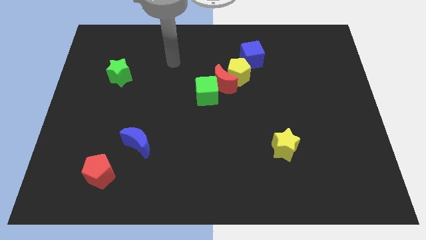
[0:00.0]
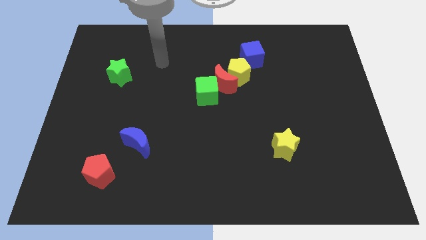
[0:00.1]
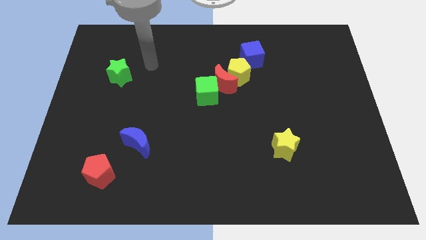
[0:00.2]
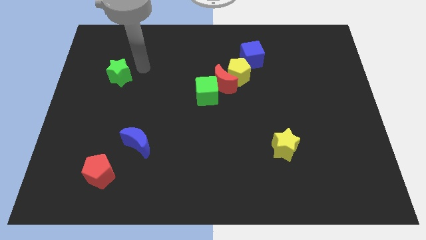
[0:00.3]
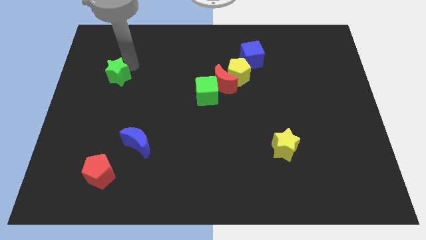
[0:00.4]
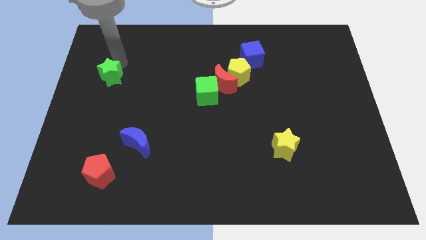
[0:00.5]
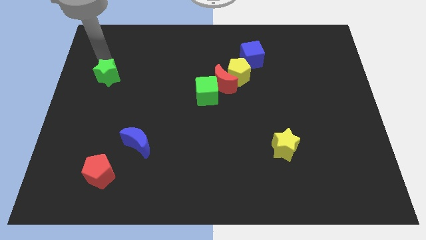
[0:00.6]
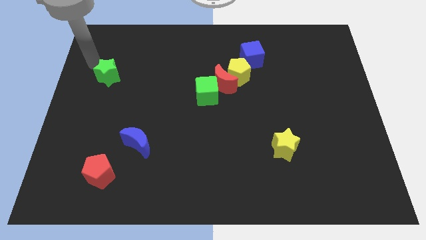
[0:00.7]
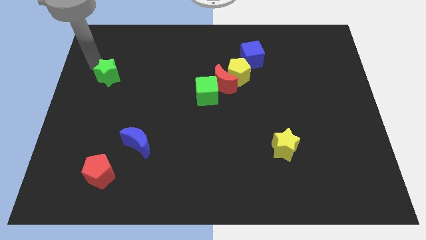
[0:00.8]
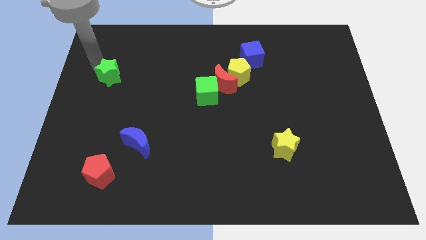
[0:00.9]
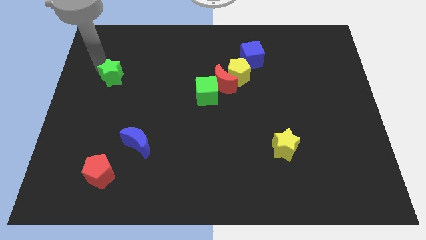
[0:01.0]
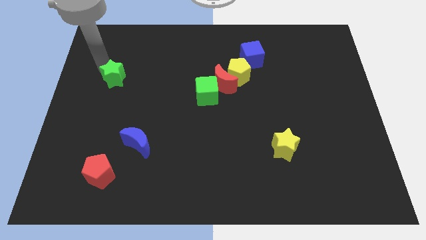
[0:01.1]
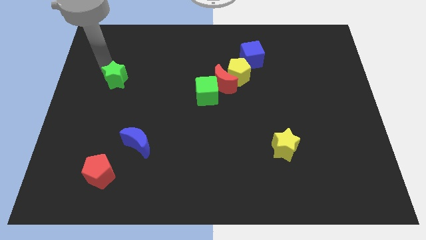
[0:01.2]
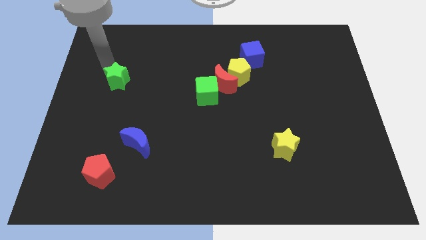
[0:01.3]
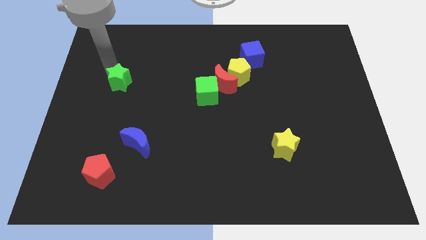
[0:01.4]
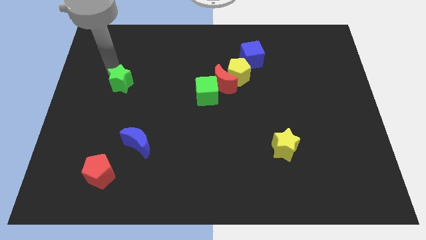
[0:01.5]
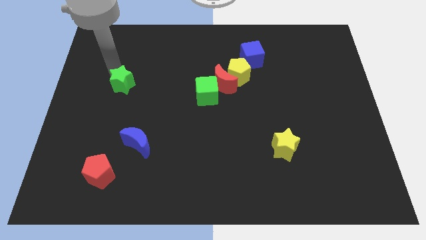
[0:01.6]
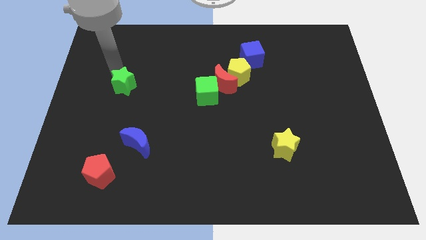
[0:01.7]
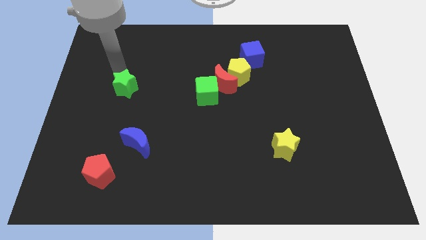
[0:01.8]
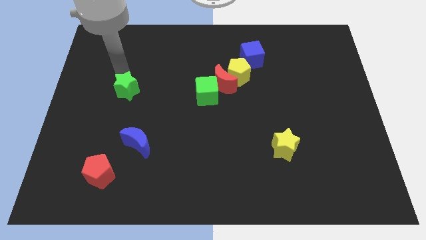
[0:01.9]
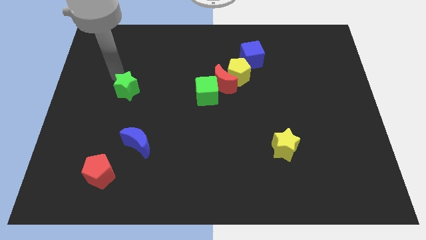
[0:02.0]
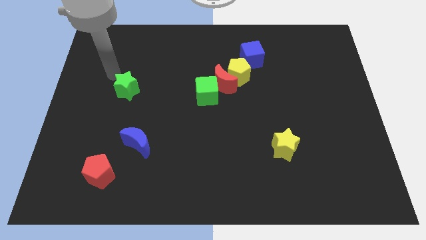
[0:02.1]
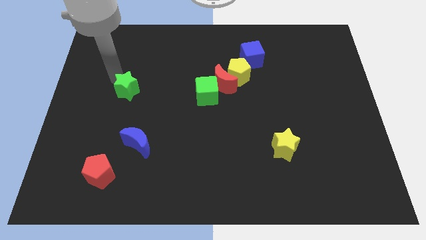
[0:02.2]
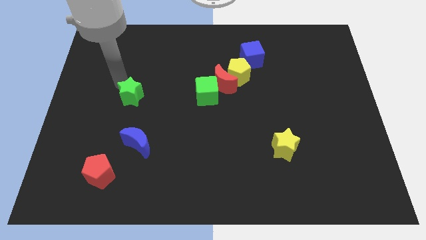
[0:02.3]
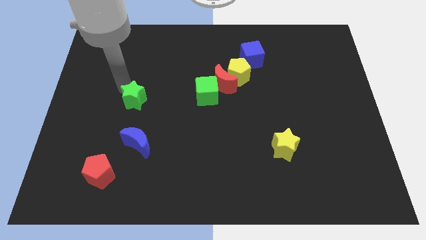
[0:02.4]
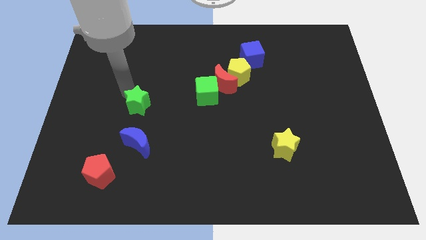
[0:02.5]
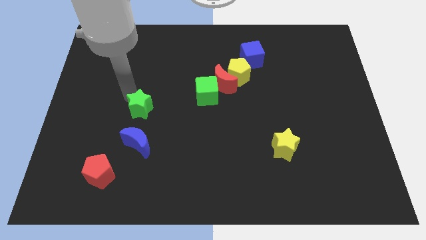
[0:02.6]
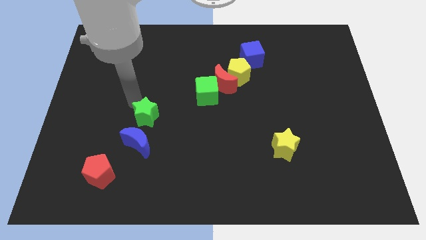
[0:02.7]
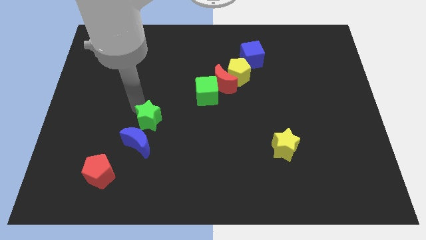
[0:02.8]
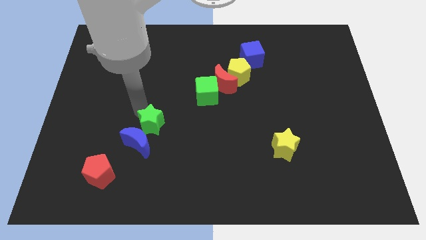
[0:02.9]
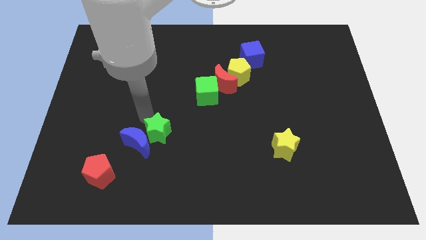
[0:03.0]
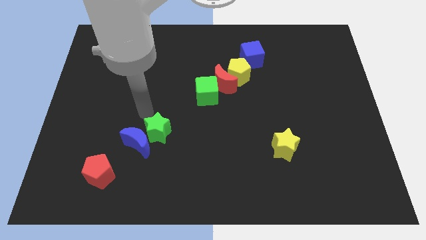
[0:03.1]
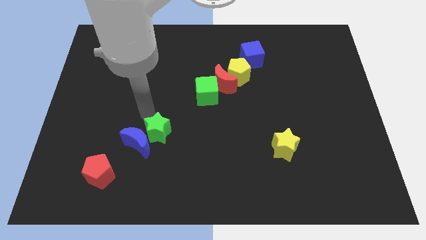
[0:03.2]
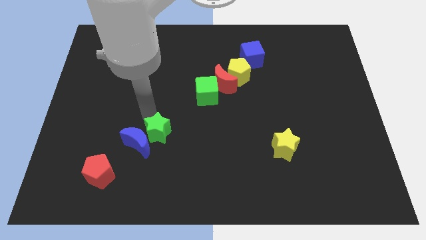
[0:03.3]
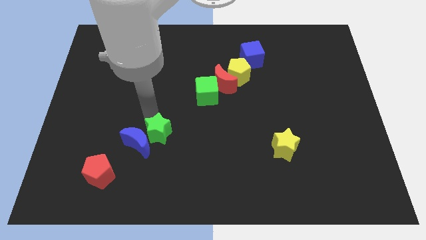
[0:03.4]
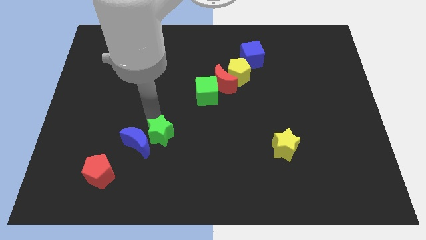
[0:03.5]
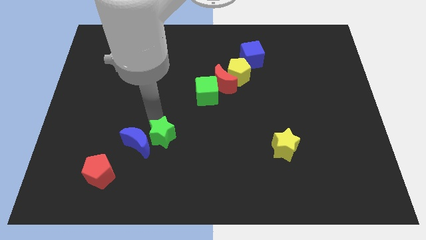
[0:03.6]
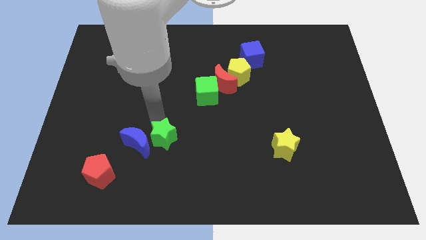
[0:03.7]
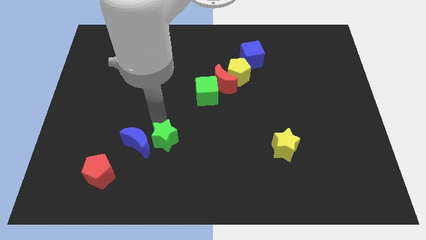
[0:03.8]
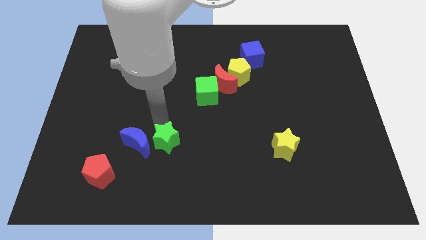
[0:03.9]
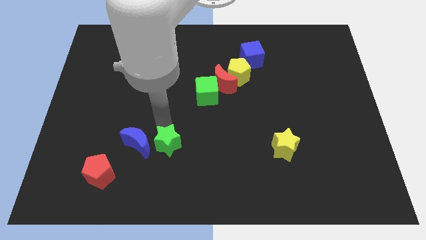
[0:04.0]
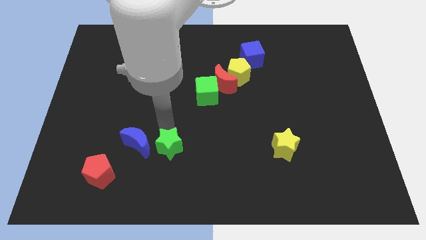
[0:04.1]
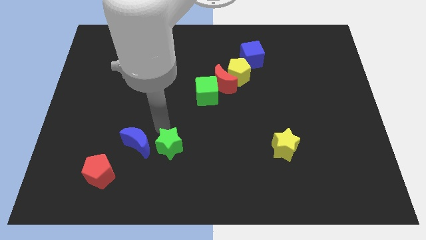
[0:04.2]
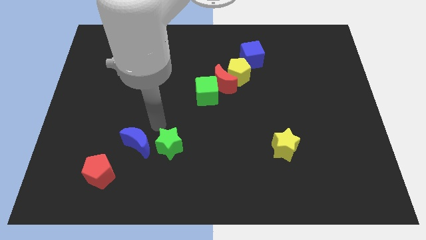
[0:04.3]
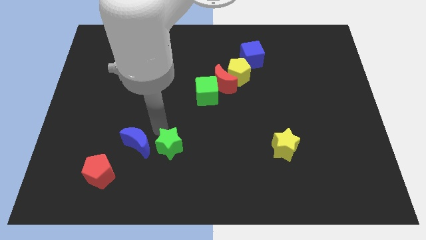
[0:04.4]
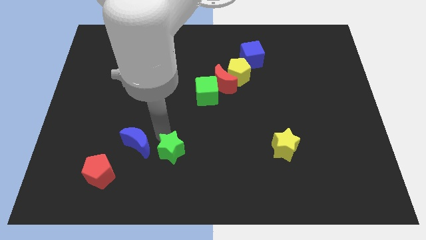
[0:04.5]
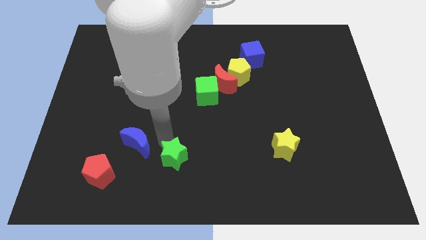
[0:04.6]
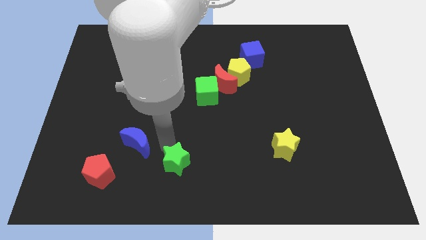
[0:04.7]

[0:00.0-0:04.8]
move the green star to the bottom

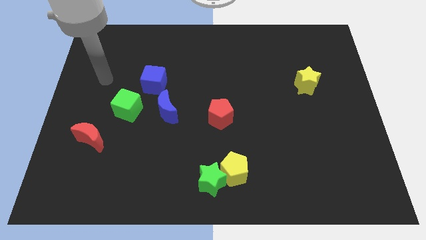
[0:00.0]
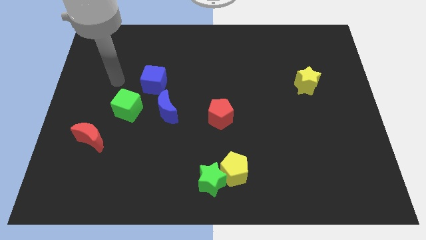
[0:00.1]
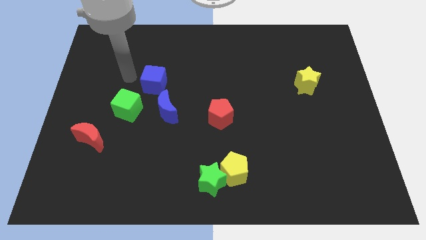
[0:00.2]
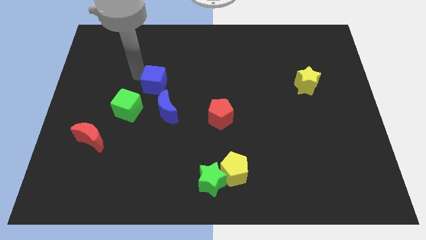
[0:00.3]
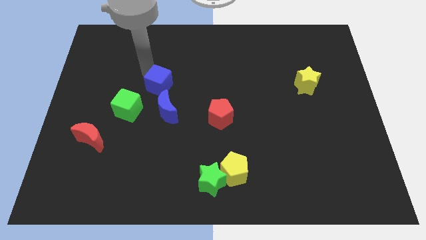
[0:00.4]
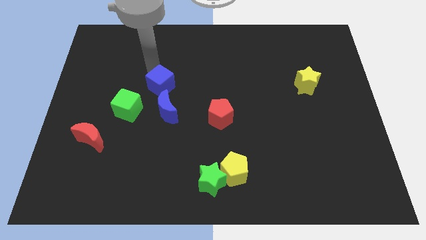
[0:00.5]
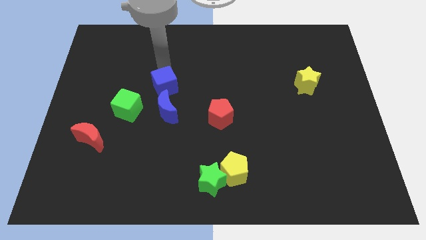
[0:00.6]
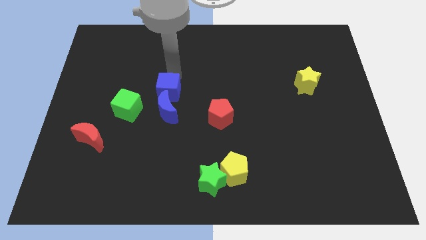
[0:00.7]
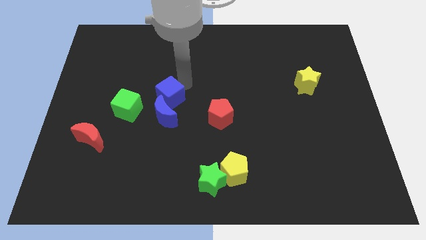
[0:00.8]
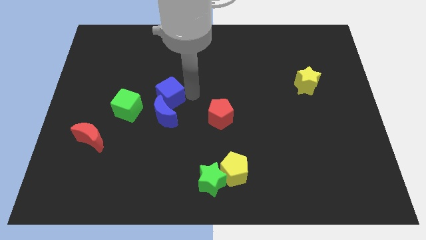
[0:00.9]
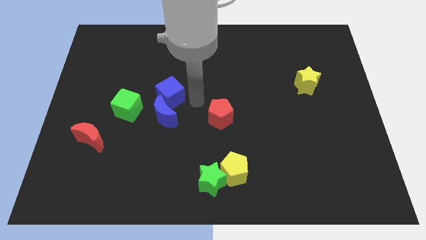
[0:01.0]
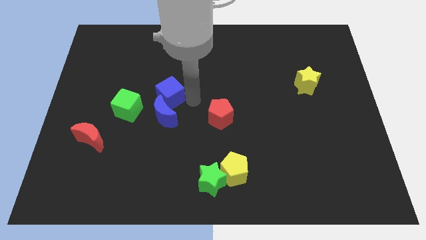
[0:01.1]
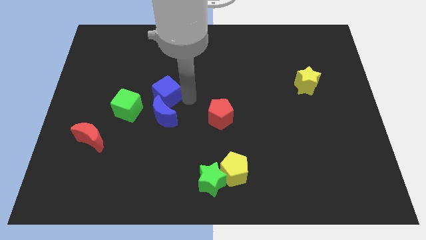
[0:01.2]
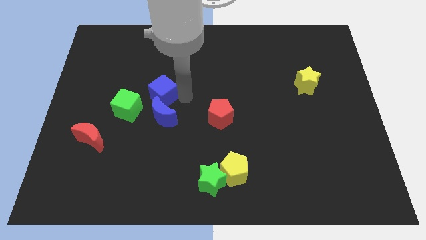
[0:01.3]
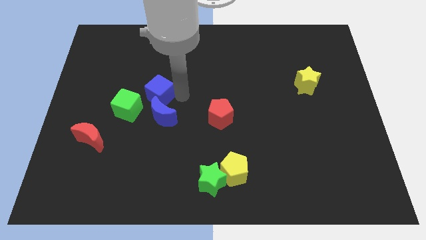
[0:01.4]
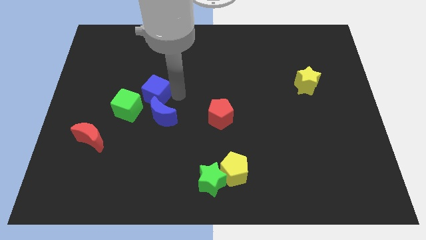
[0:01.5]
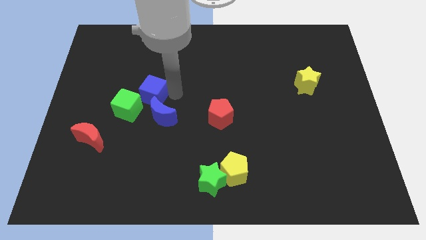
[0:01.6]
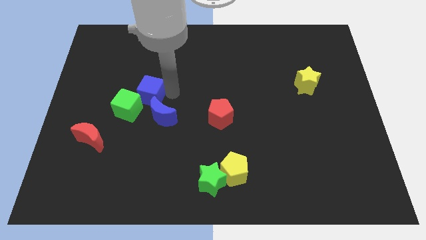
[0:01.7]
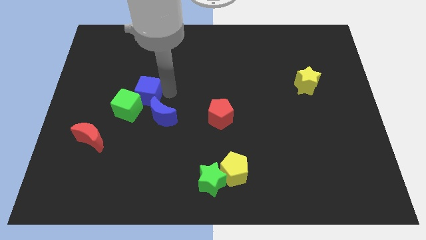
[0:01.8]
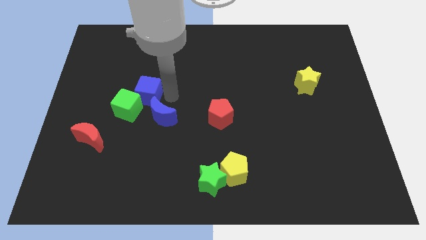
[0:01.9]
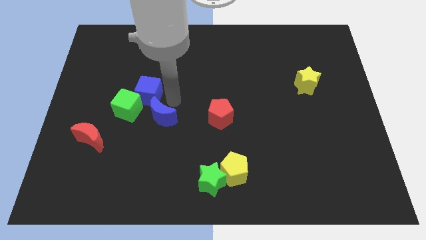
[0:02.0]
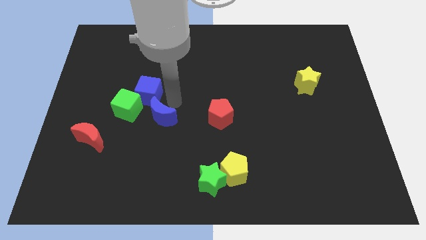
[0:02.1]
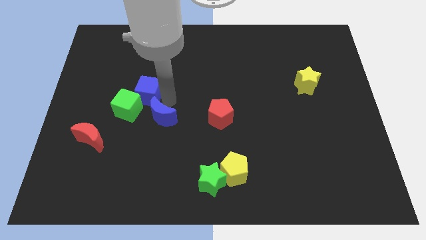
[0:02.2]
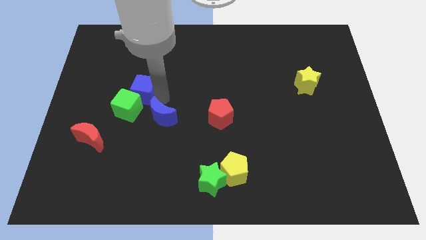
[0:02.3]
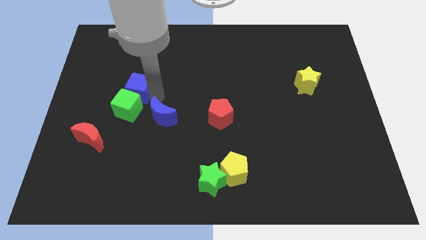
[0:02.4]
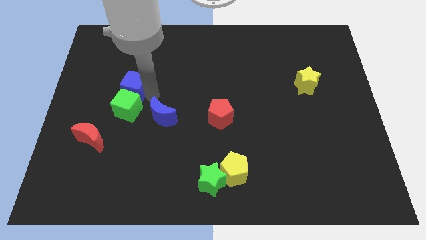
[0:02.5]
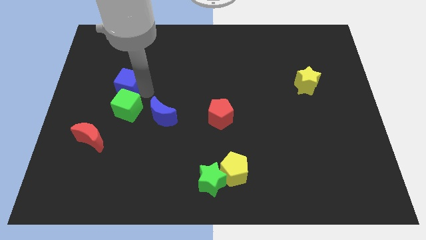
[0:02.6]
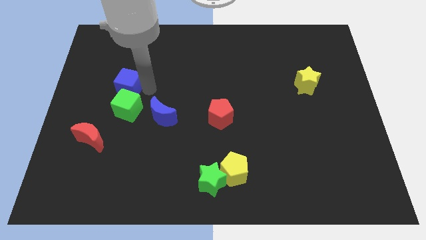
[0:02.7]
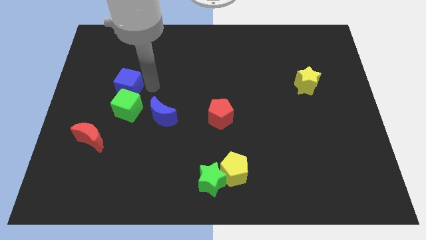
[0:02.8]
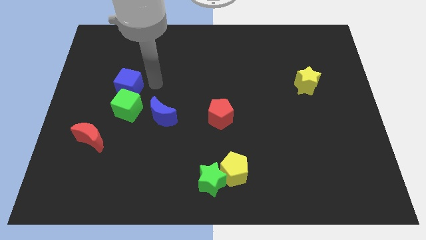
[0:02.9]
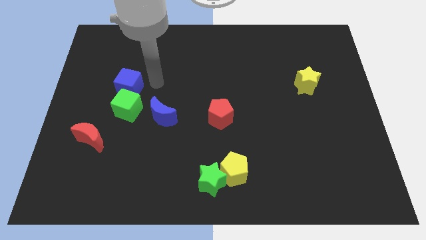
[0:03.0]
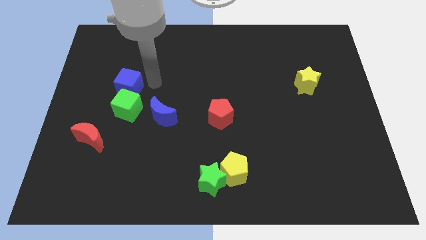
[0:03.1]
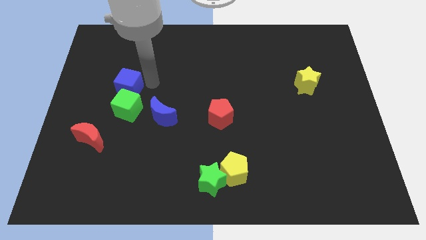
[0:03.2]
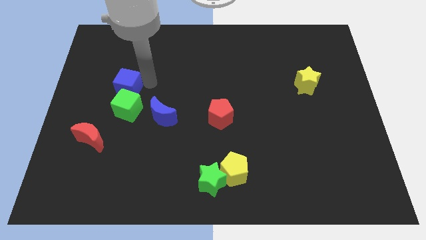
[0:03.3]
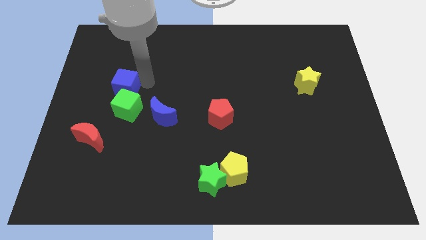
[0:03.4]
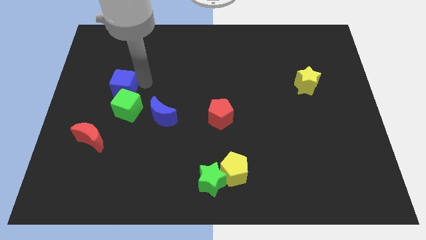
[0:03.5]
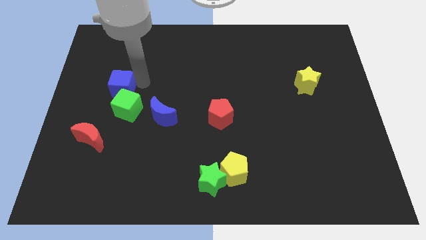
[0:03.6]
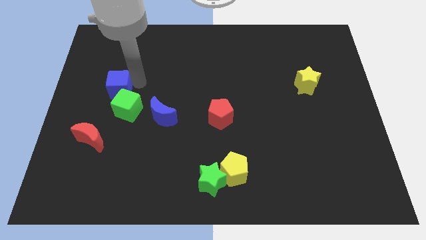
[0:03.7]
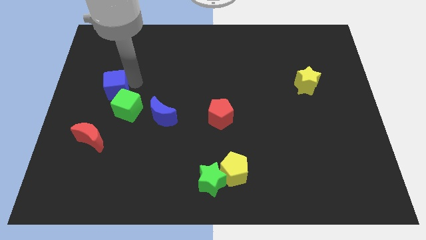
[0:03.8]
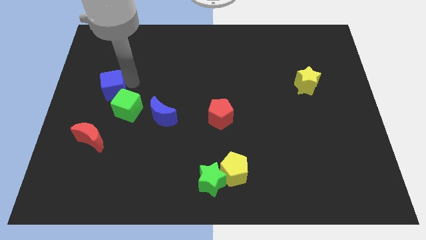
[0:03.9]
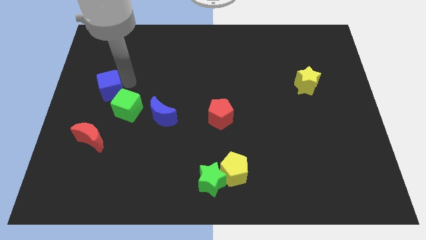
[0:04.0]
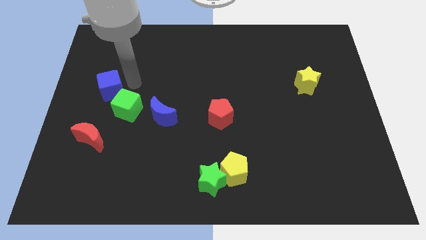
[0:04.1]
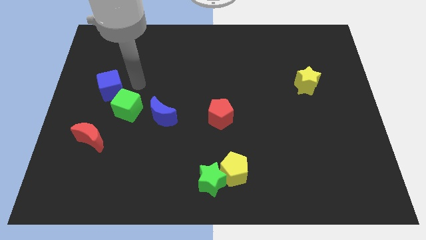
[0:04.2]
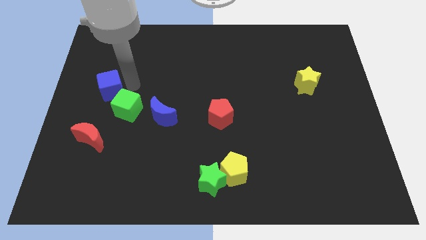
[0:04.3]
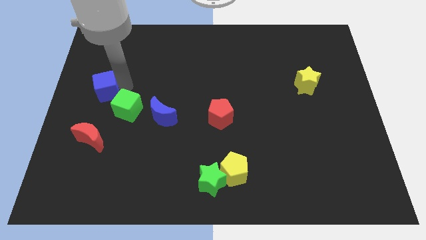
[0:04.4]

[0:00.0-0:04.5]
move the blue cube to the left side of the board
